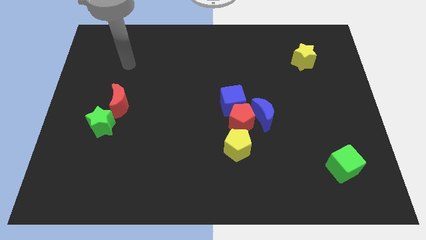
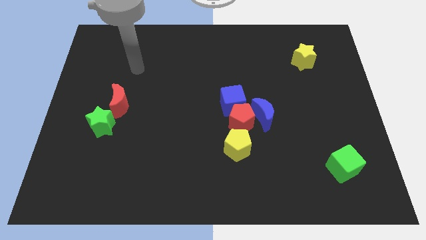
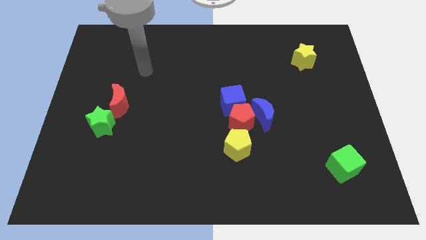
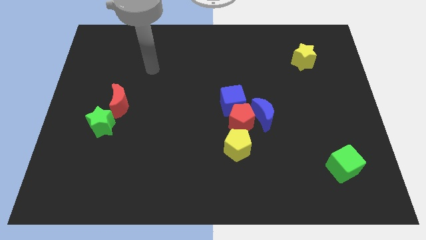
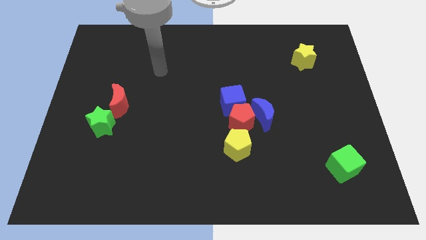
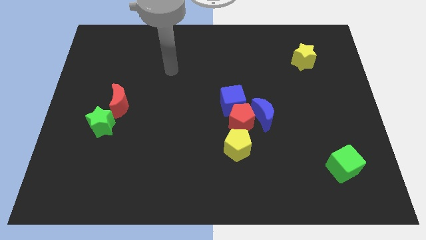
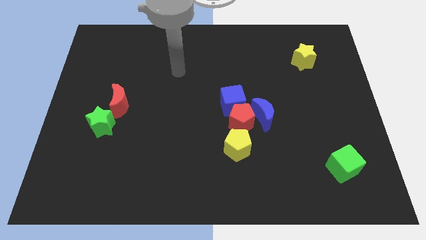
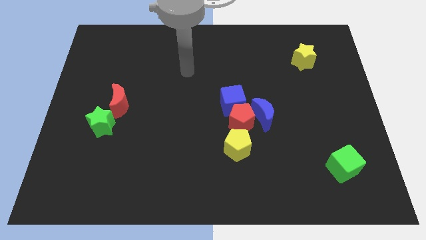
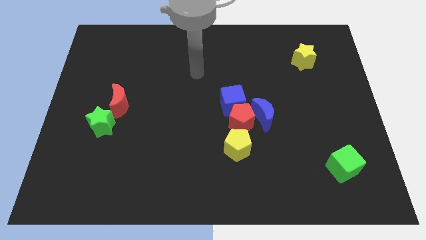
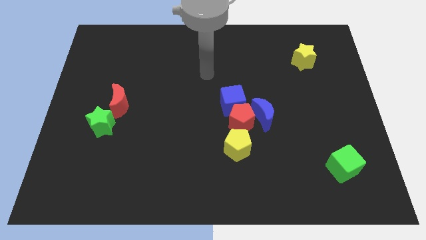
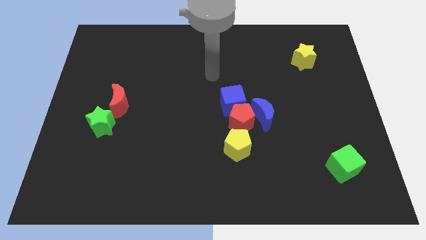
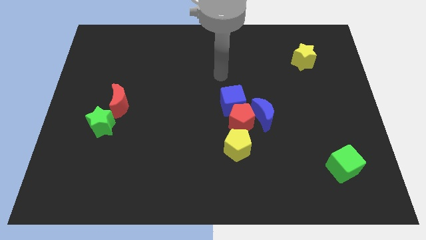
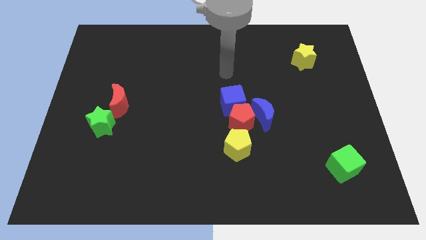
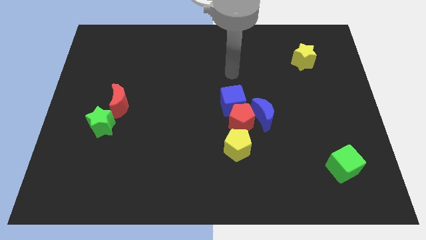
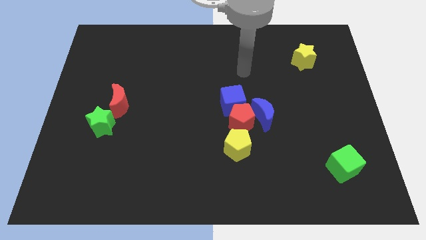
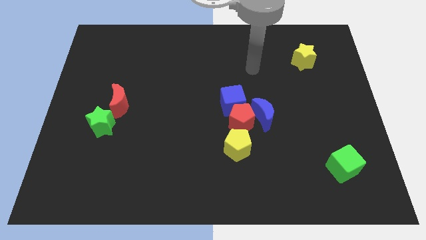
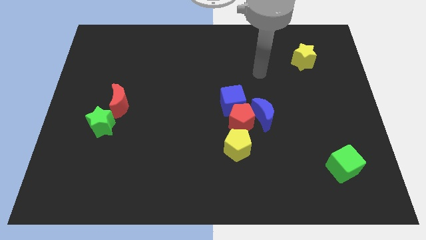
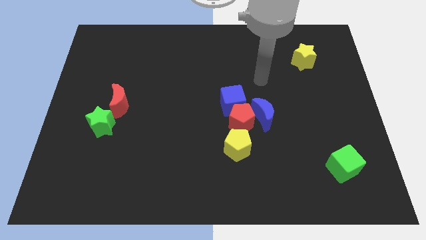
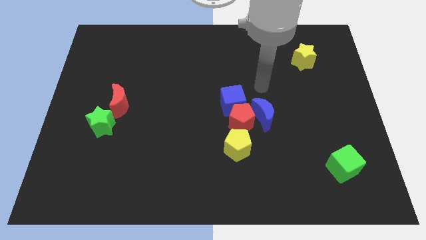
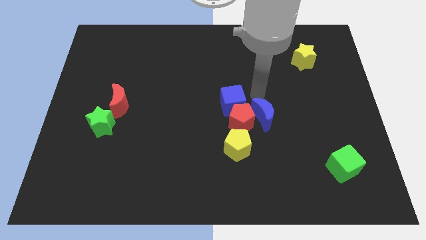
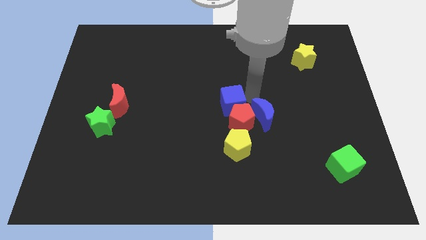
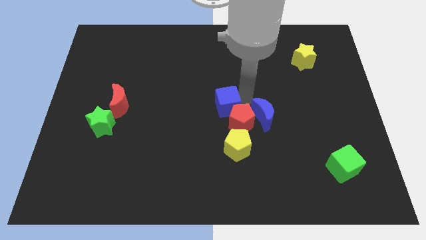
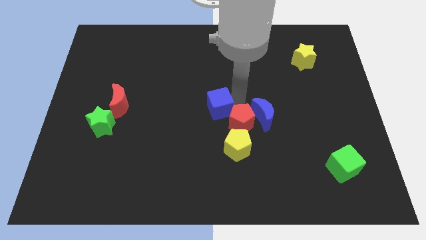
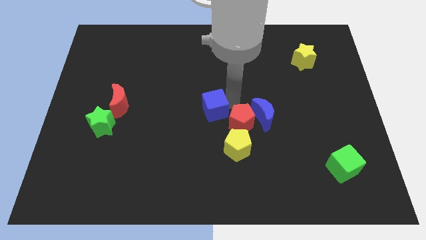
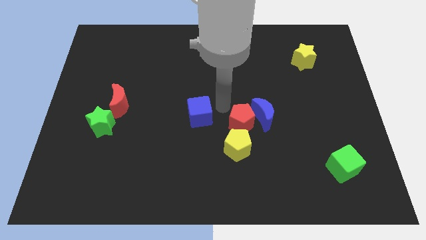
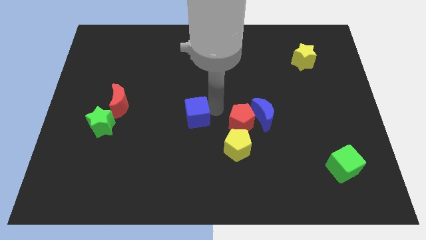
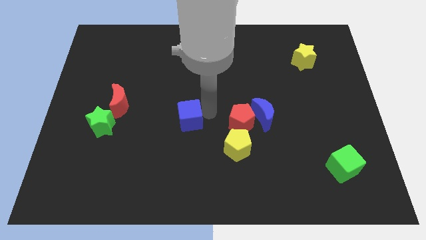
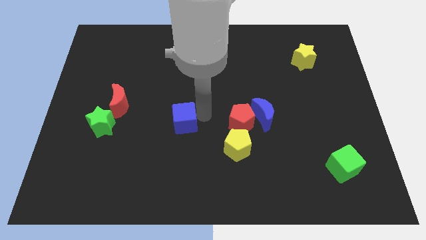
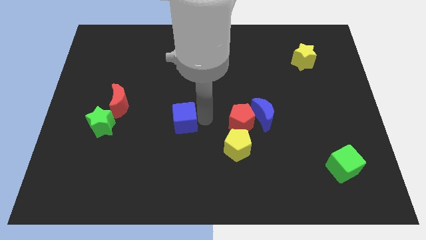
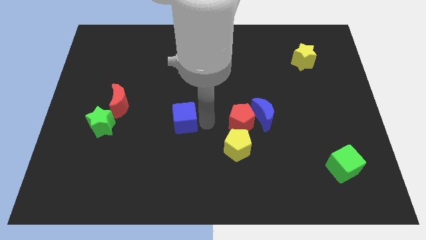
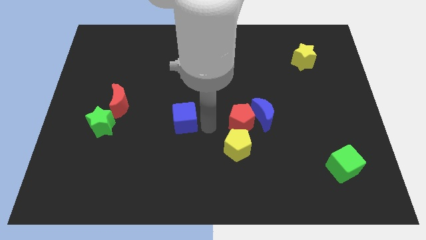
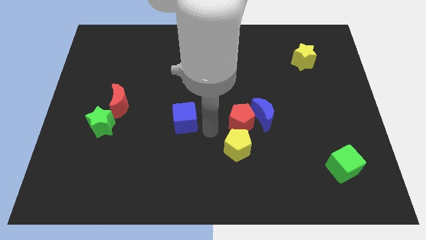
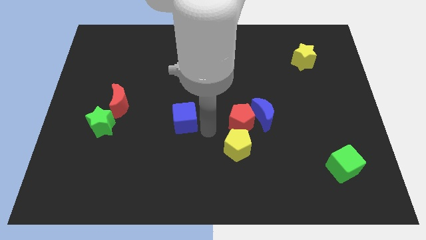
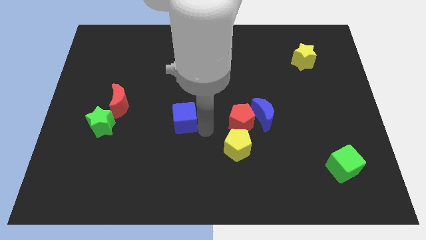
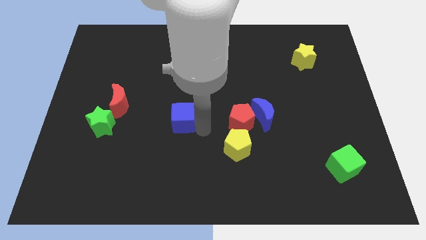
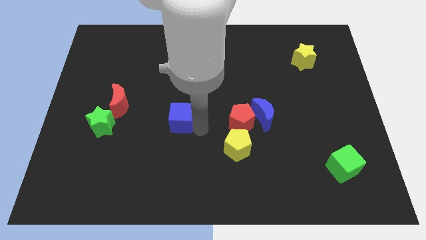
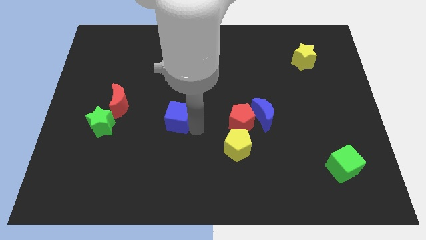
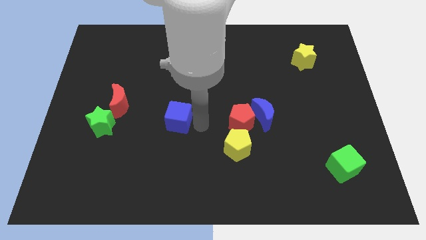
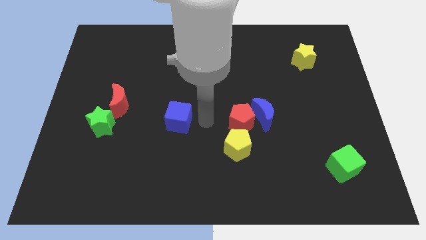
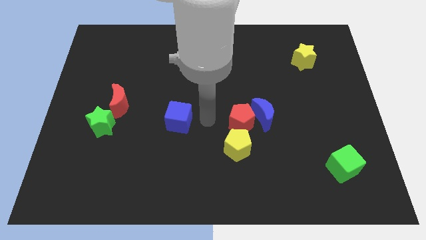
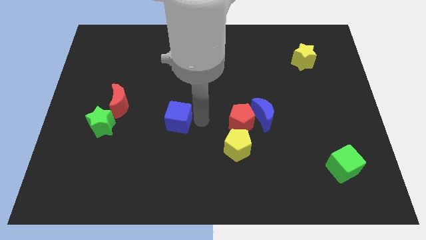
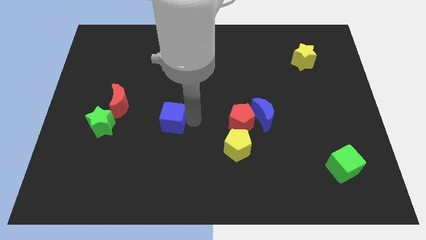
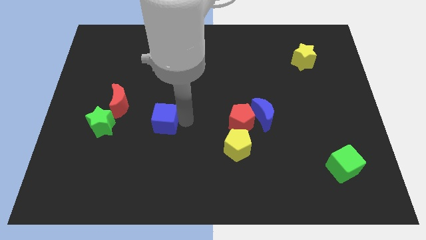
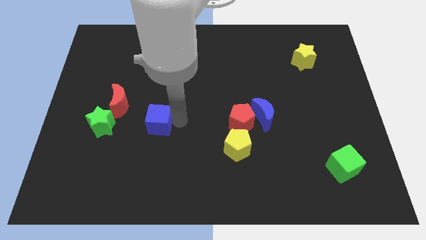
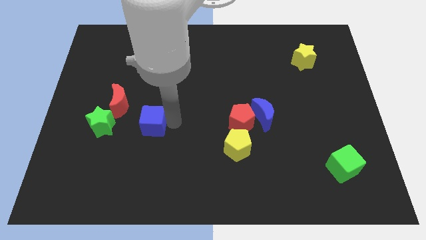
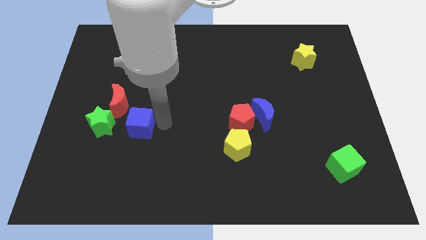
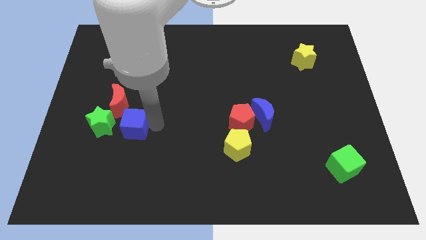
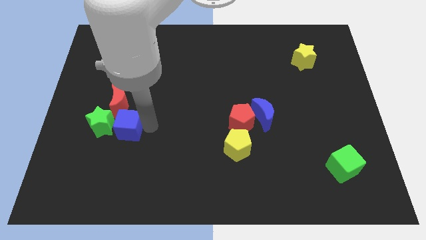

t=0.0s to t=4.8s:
put the blue cube to the green star

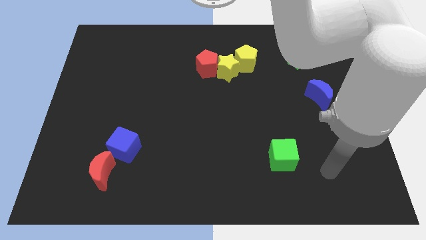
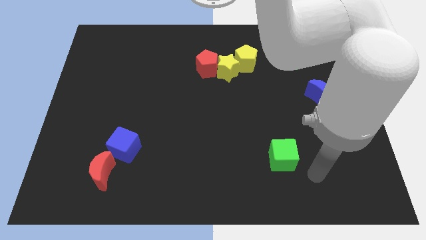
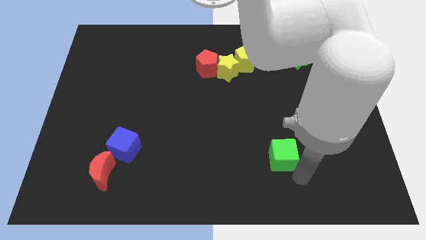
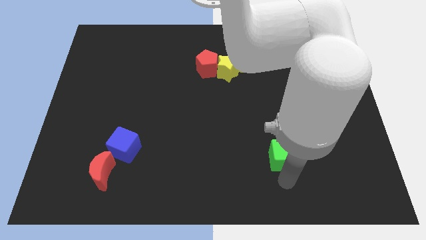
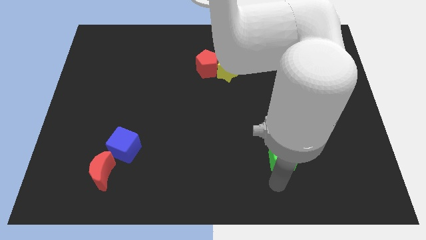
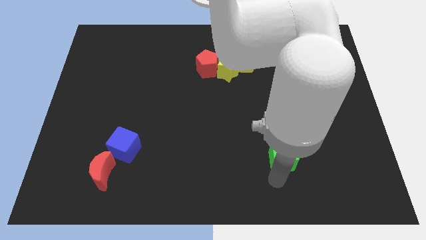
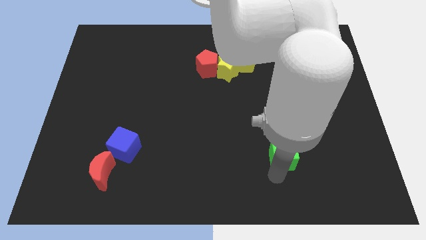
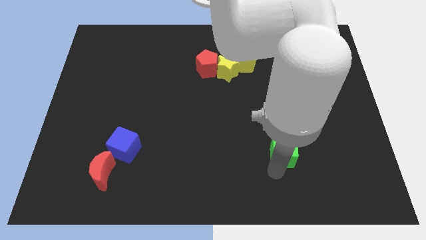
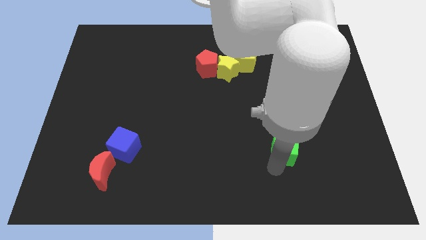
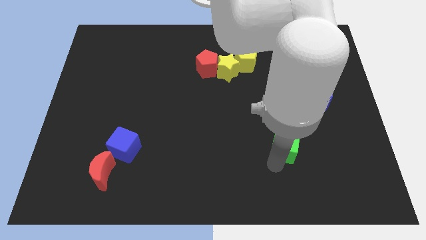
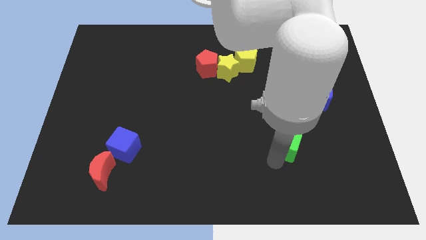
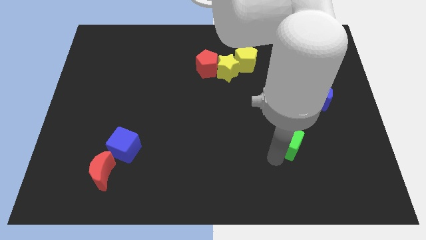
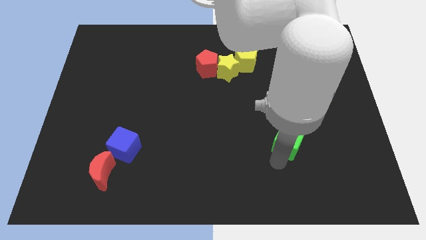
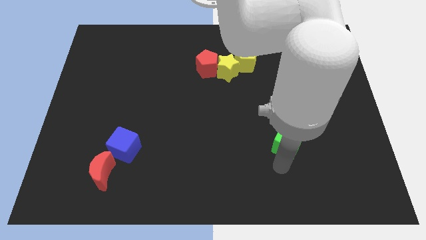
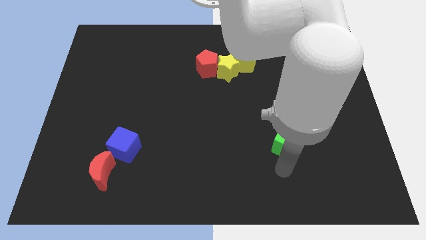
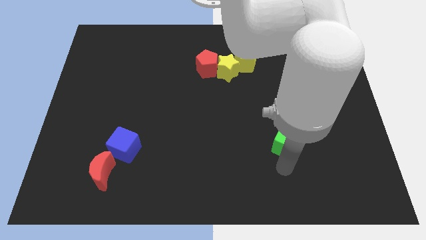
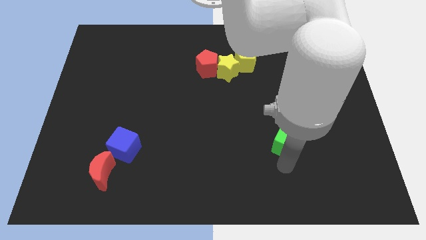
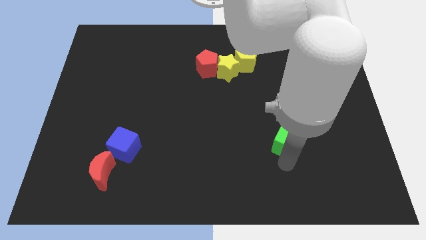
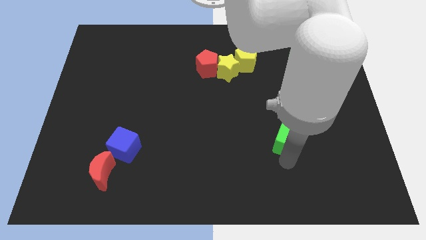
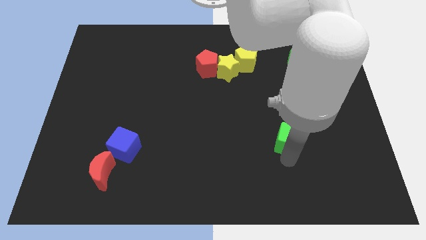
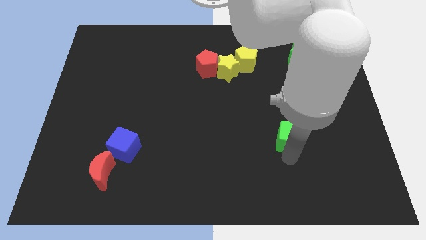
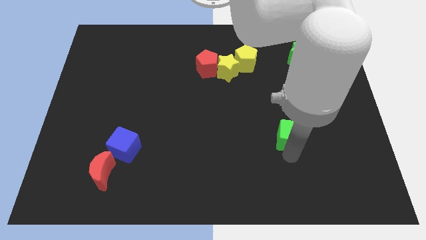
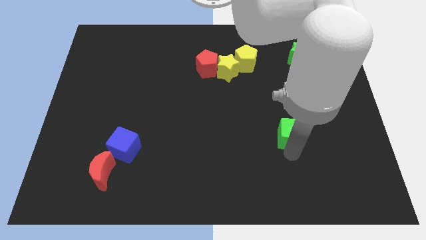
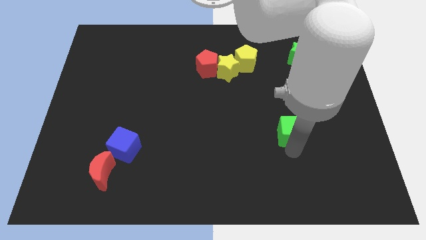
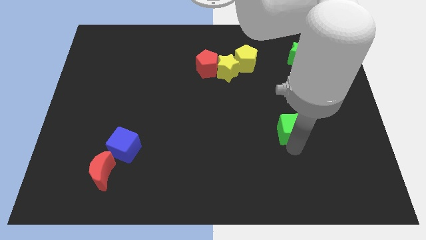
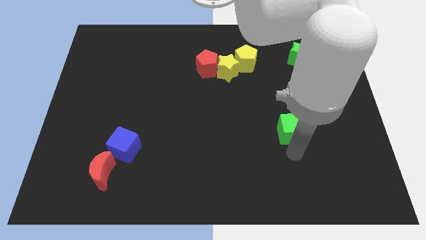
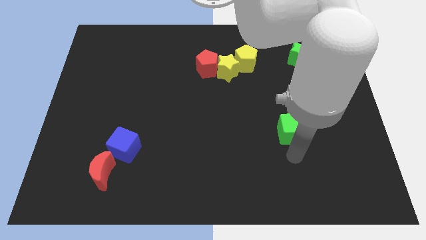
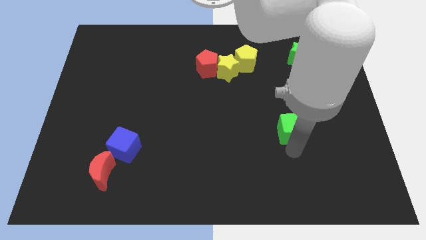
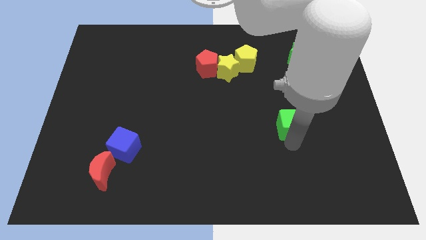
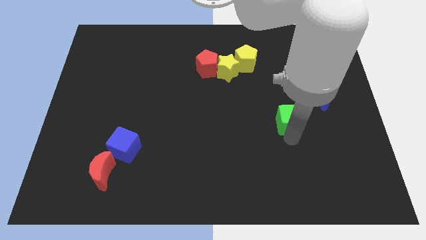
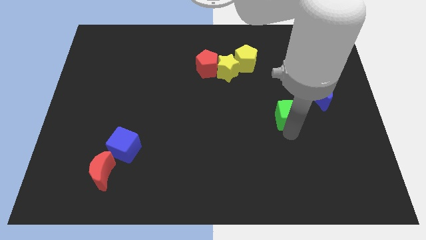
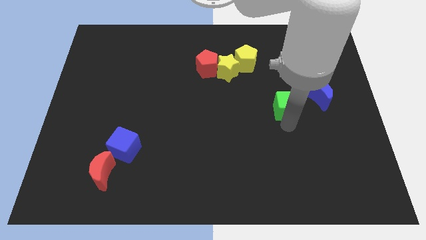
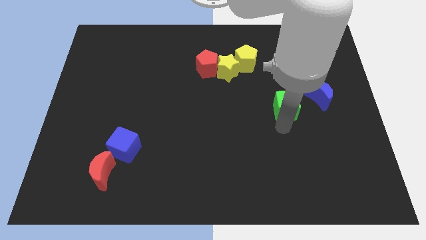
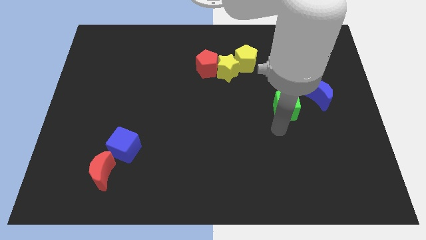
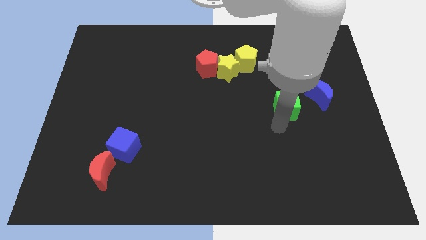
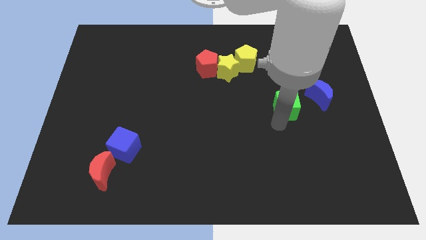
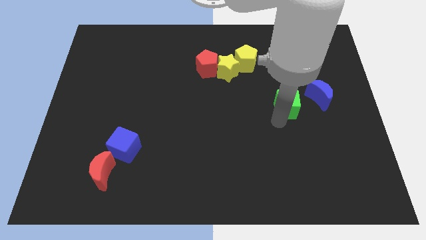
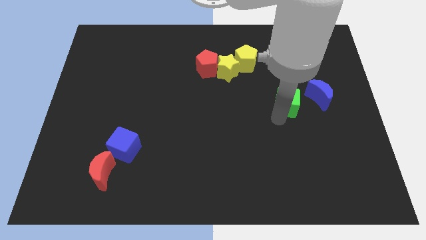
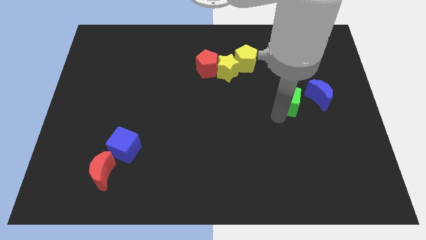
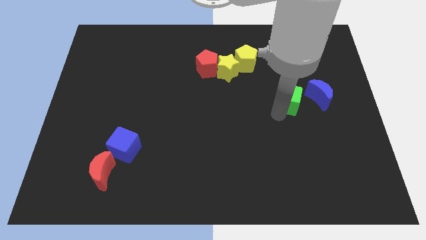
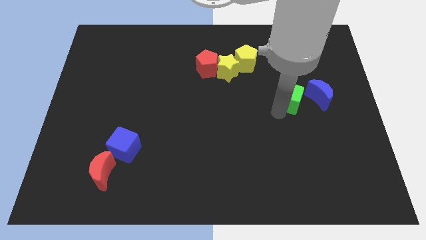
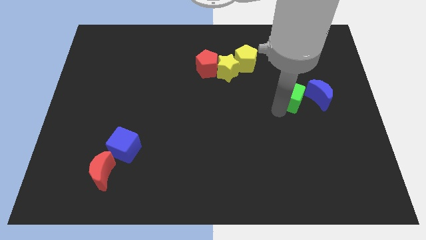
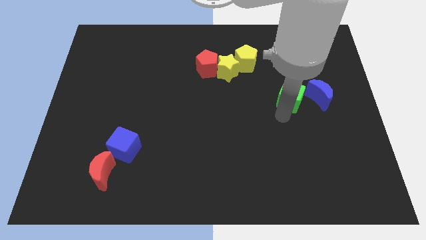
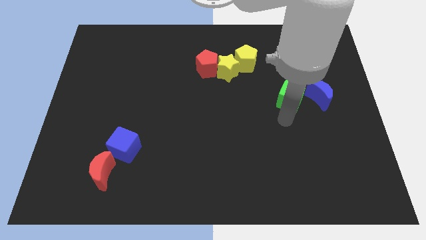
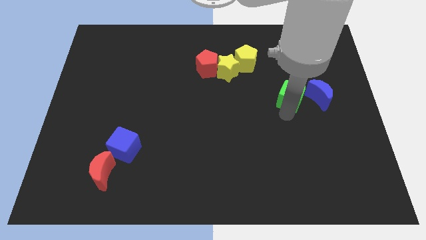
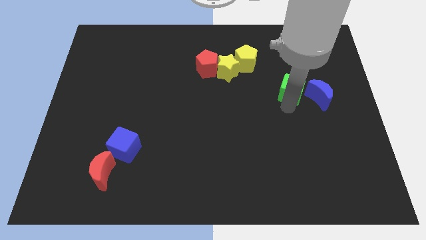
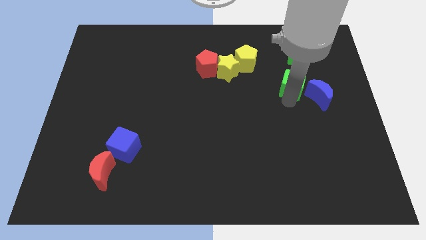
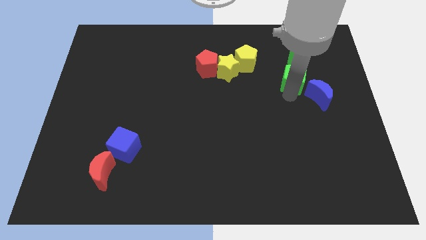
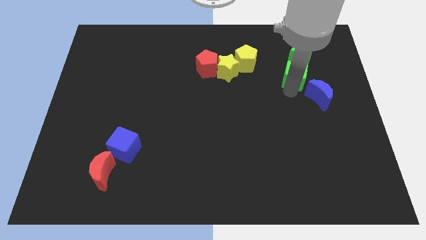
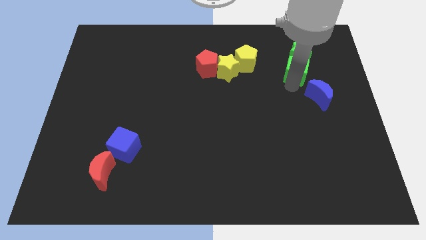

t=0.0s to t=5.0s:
put the green cube to the green star
